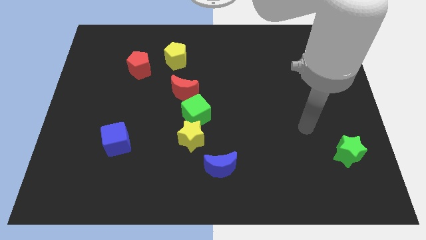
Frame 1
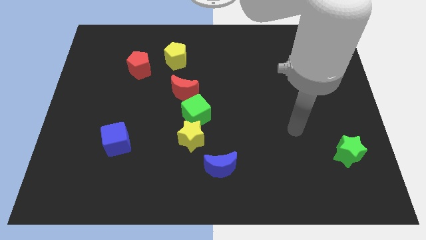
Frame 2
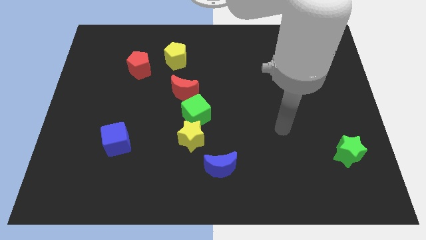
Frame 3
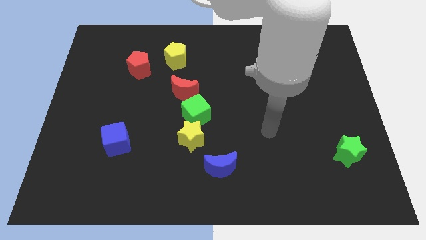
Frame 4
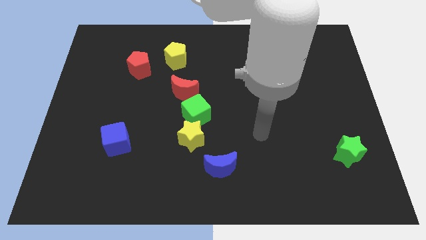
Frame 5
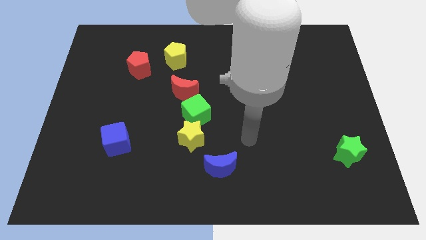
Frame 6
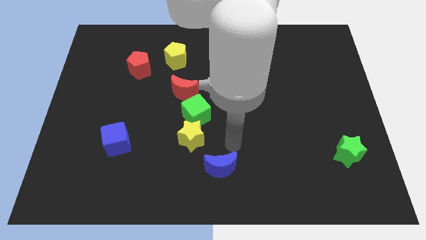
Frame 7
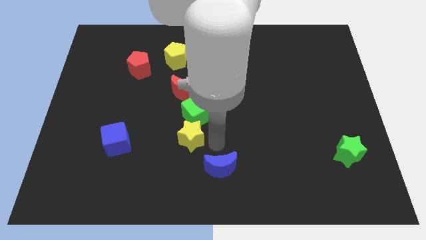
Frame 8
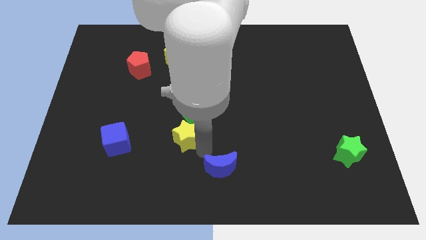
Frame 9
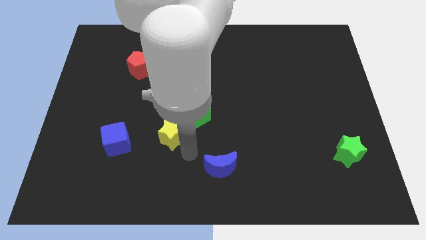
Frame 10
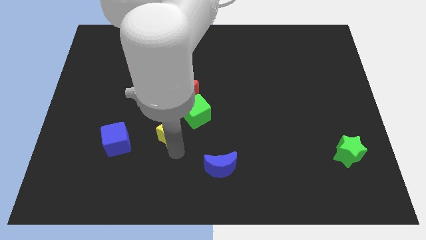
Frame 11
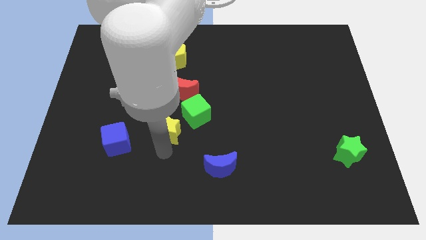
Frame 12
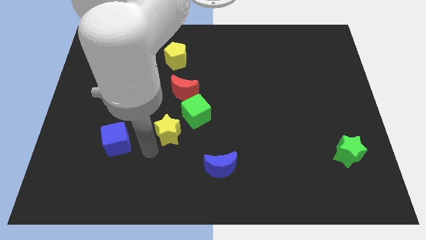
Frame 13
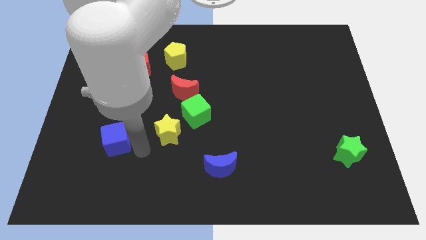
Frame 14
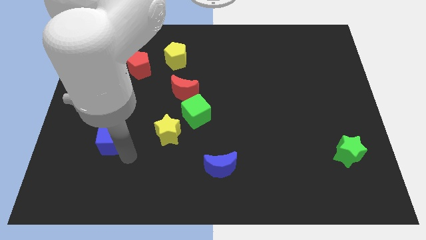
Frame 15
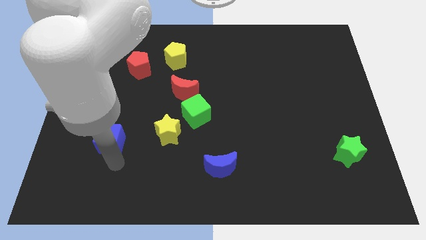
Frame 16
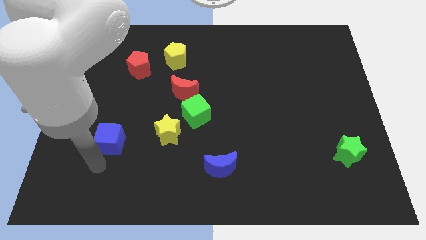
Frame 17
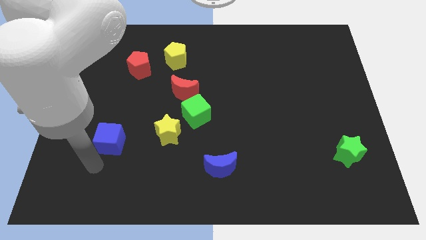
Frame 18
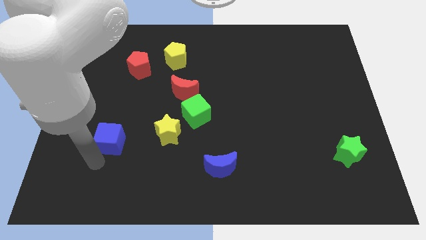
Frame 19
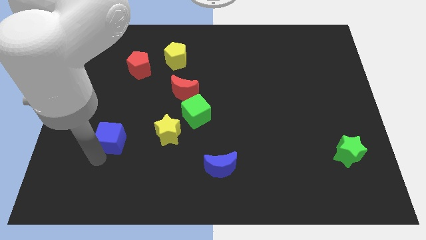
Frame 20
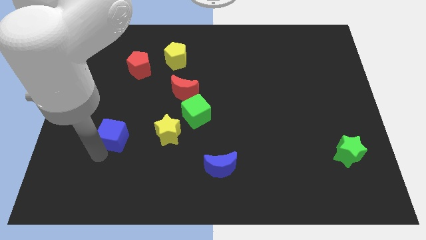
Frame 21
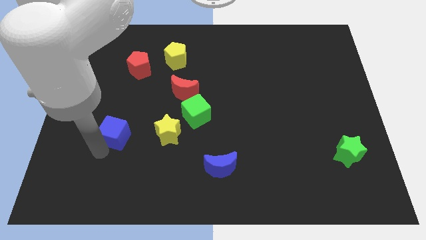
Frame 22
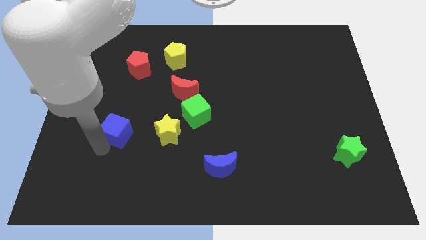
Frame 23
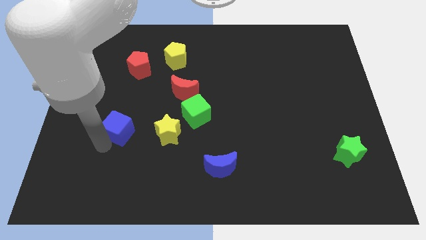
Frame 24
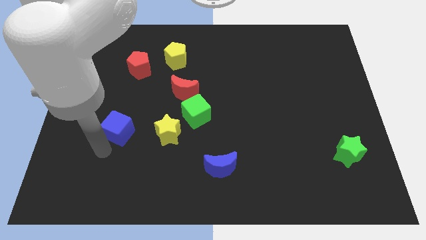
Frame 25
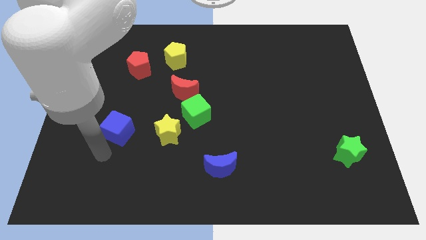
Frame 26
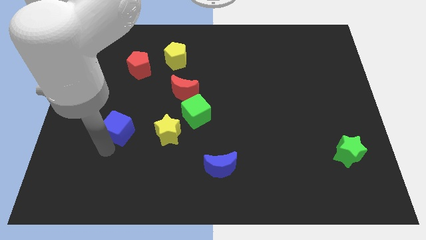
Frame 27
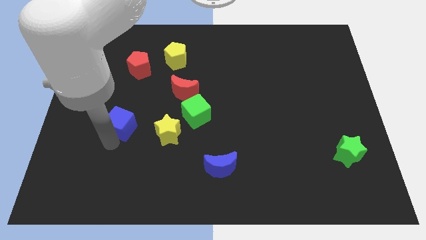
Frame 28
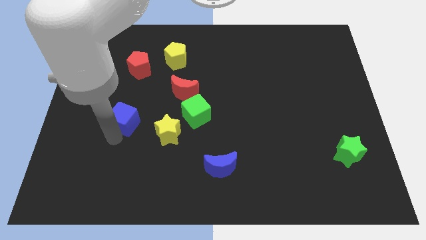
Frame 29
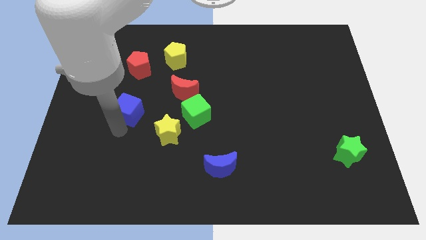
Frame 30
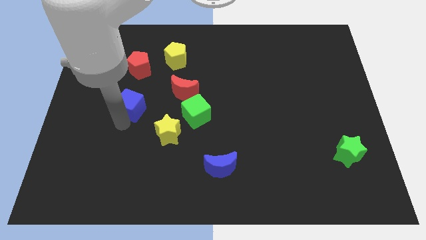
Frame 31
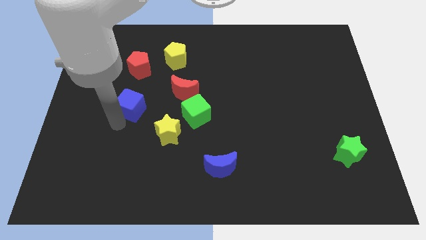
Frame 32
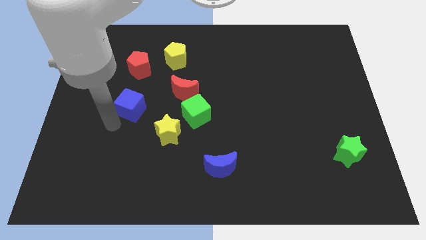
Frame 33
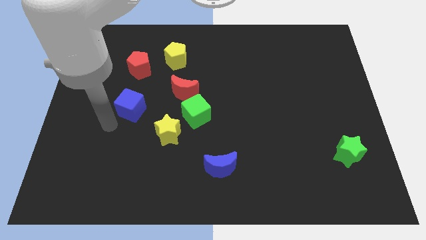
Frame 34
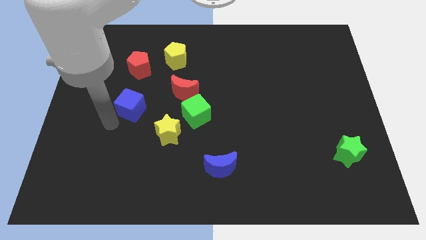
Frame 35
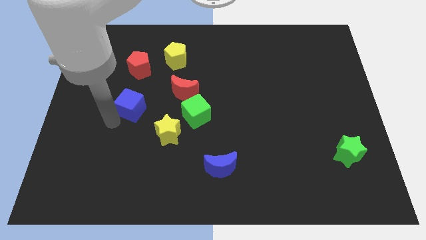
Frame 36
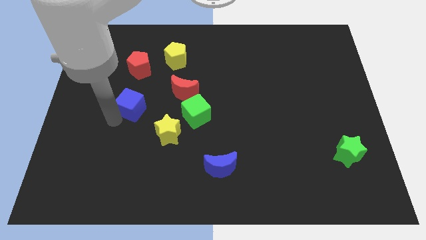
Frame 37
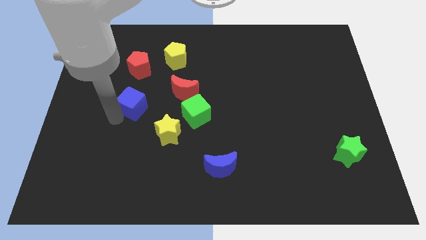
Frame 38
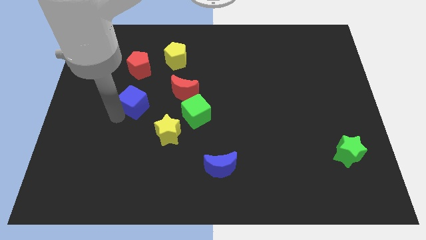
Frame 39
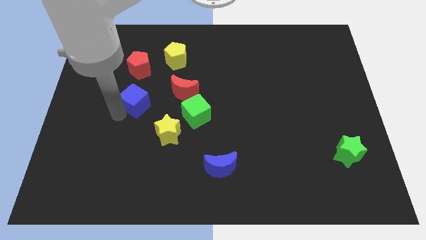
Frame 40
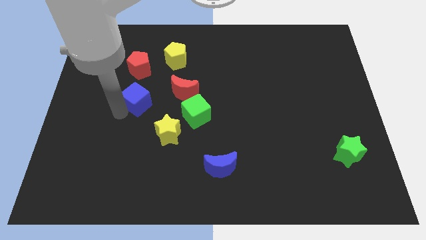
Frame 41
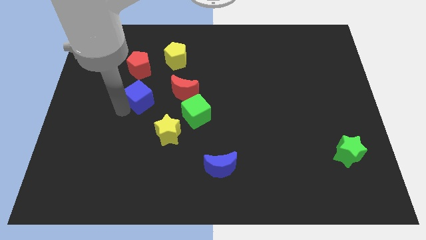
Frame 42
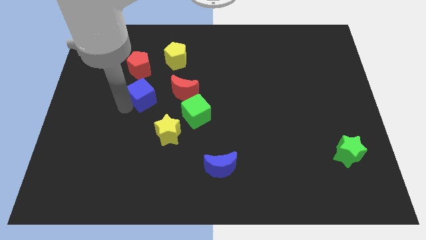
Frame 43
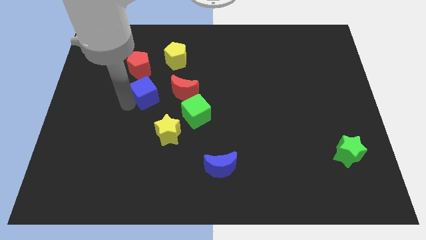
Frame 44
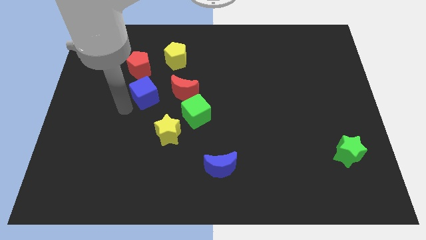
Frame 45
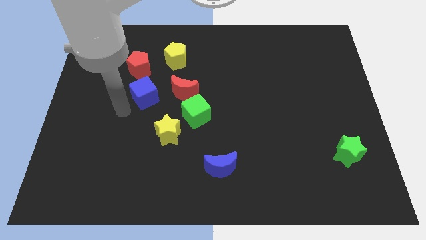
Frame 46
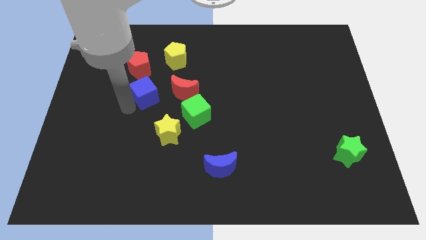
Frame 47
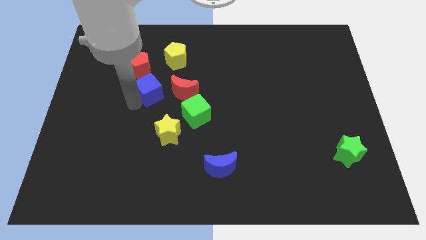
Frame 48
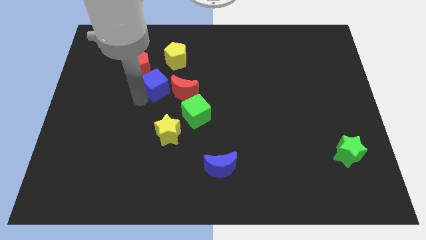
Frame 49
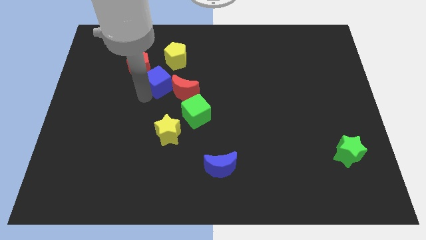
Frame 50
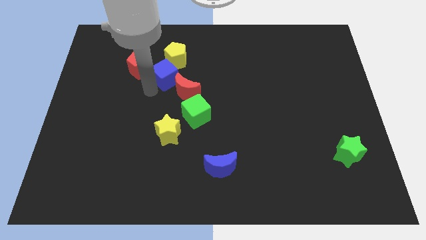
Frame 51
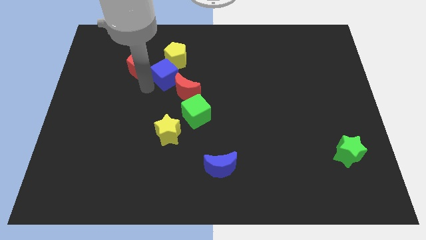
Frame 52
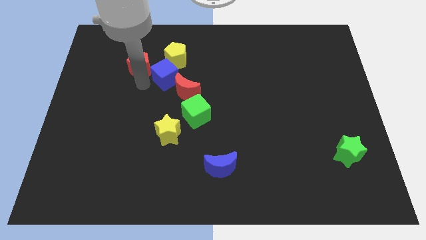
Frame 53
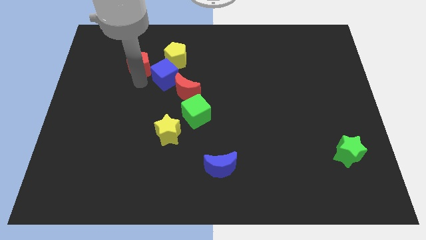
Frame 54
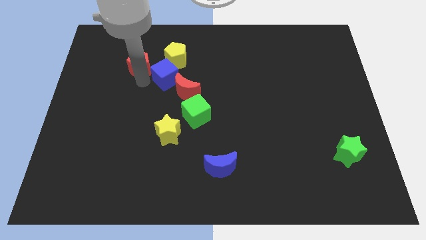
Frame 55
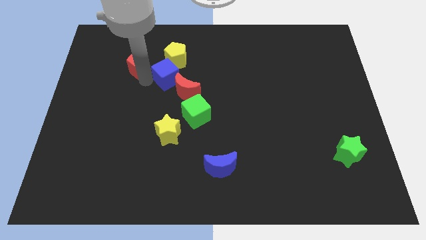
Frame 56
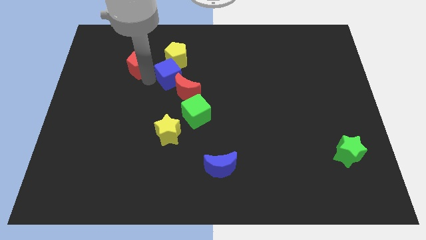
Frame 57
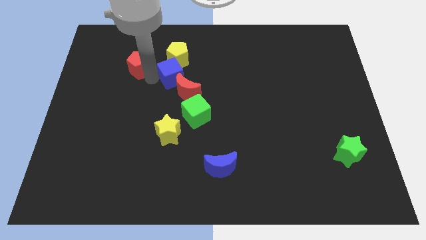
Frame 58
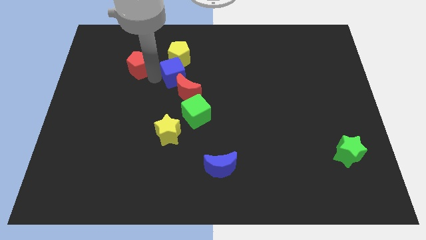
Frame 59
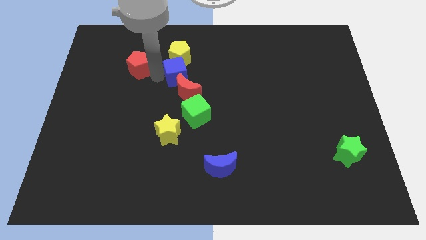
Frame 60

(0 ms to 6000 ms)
put the blue cube diagonally down and to the right of the yellow pentagon

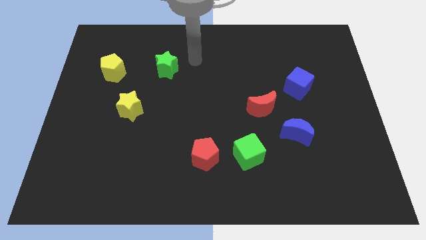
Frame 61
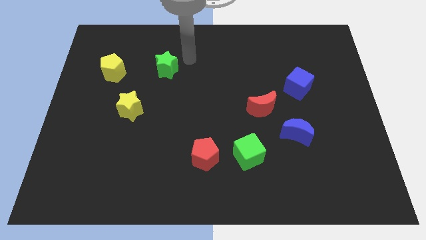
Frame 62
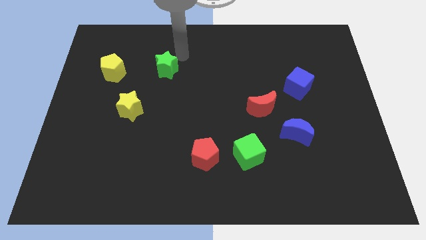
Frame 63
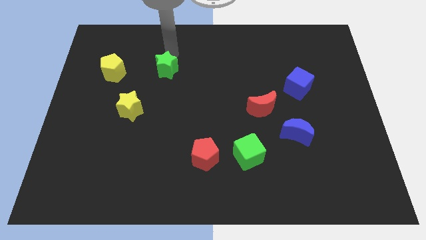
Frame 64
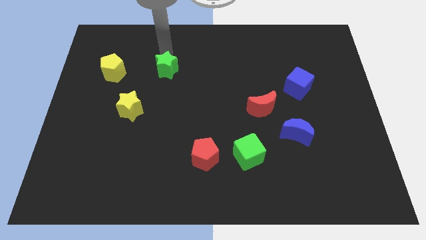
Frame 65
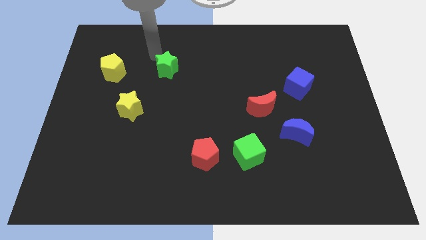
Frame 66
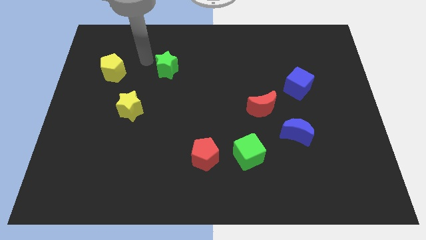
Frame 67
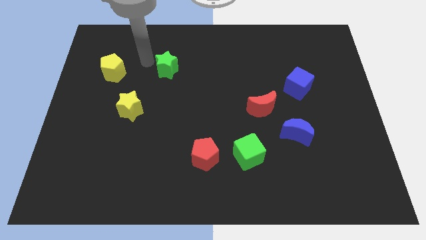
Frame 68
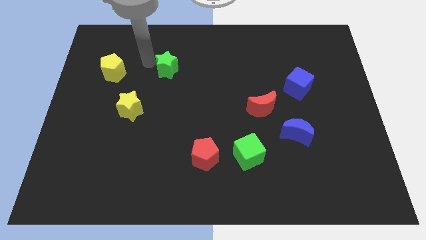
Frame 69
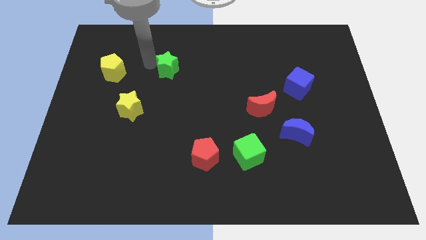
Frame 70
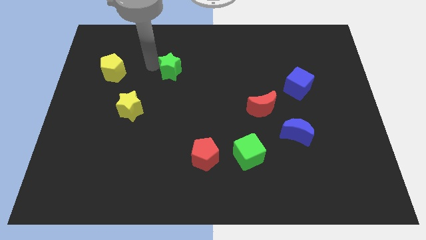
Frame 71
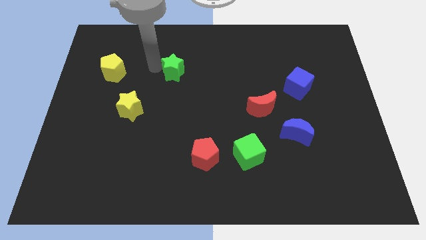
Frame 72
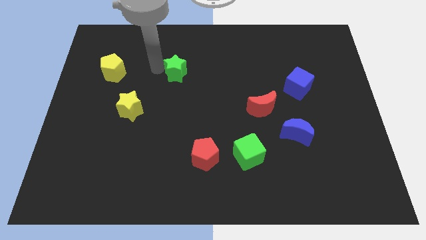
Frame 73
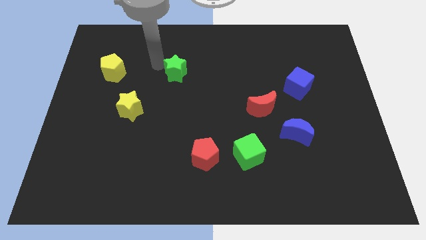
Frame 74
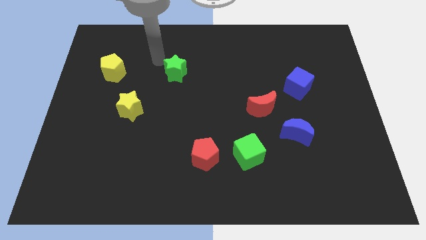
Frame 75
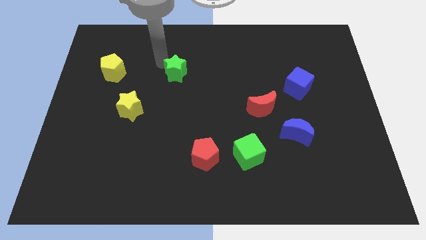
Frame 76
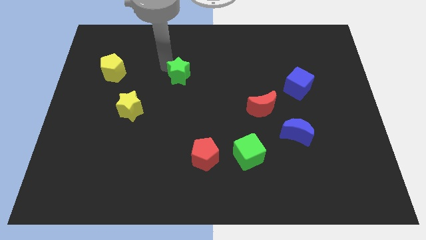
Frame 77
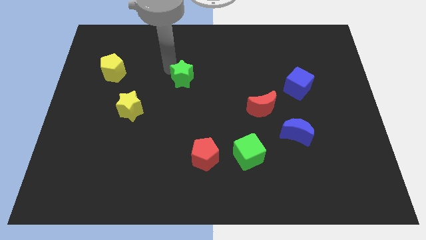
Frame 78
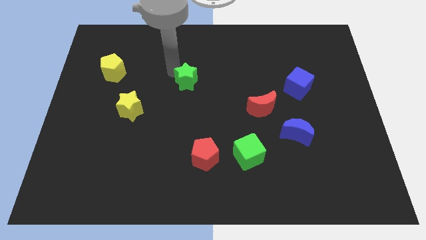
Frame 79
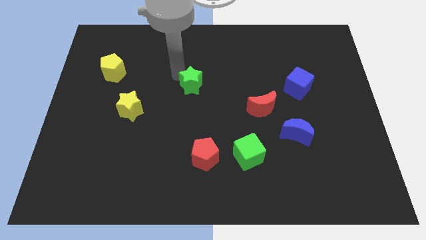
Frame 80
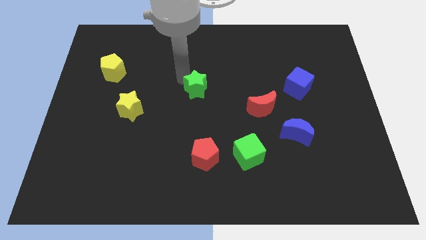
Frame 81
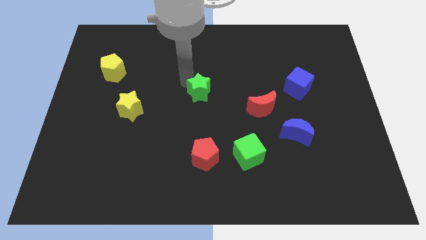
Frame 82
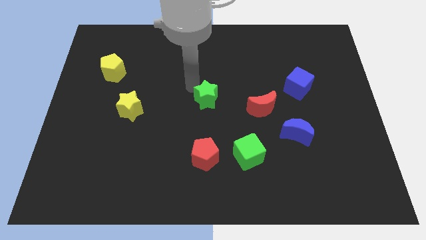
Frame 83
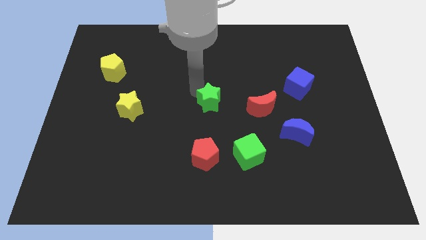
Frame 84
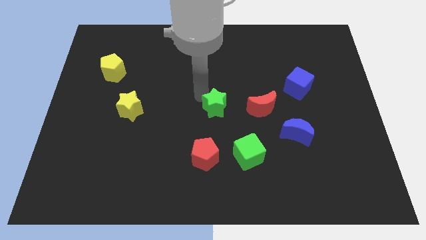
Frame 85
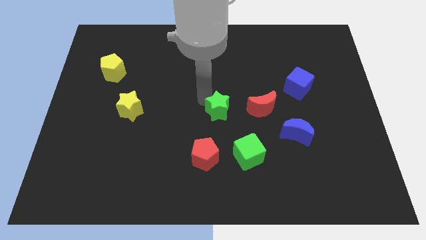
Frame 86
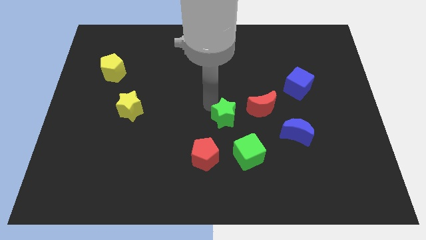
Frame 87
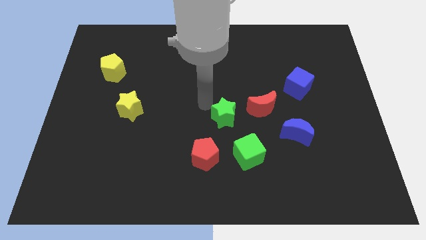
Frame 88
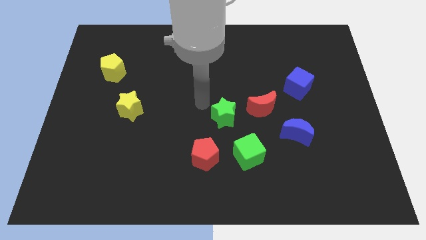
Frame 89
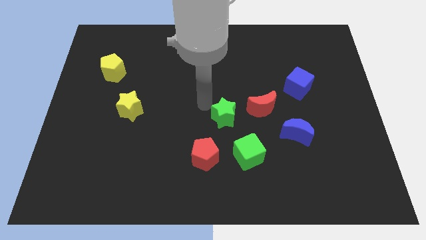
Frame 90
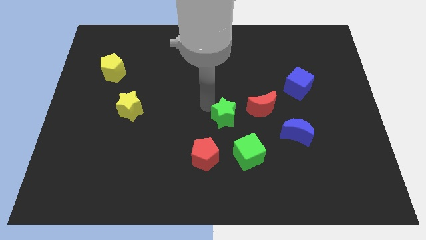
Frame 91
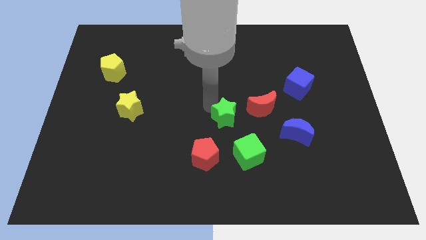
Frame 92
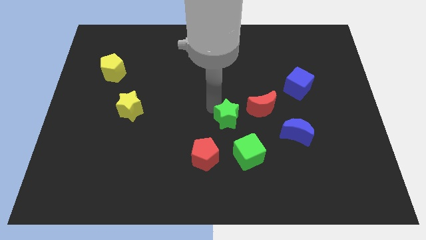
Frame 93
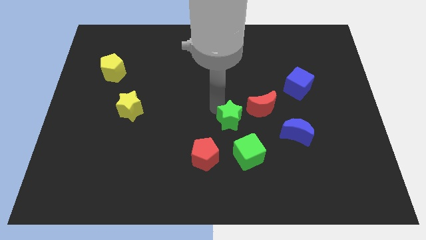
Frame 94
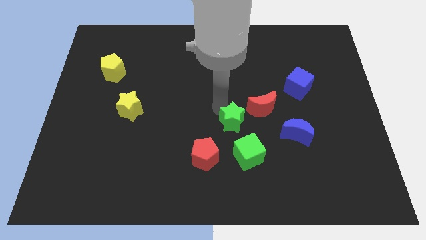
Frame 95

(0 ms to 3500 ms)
slide the green star left of the blue moon
